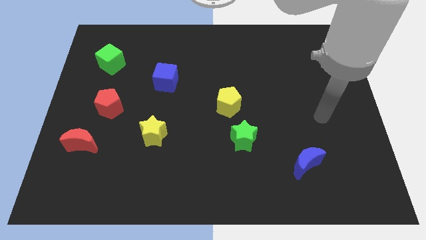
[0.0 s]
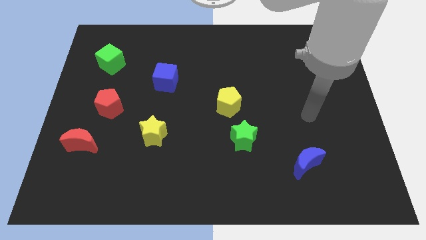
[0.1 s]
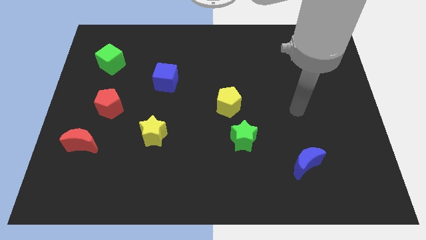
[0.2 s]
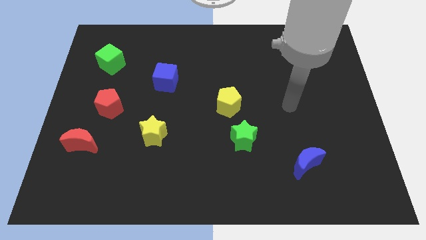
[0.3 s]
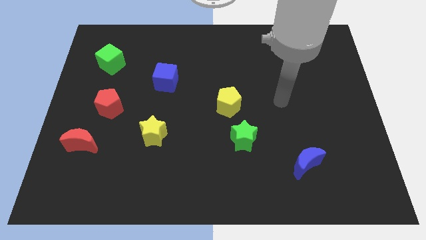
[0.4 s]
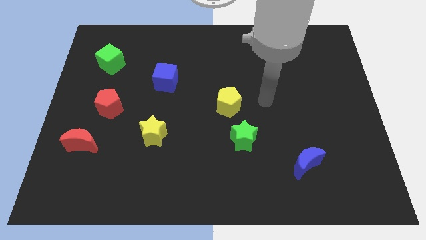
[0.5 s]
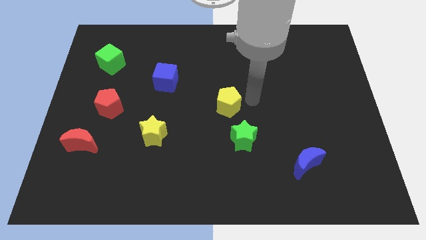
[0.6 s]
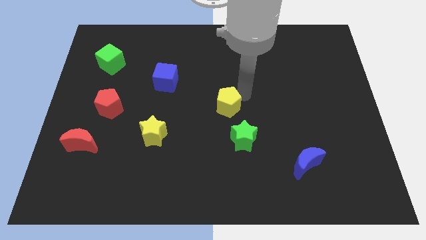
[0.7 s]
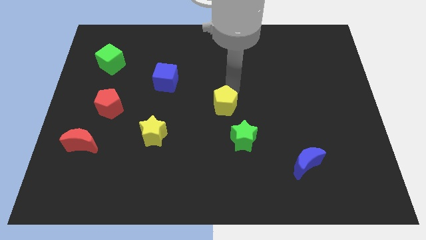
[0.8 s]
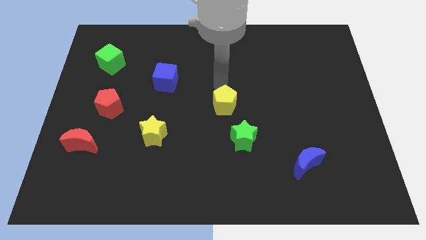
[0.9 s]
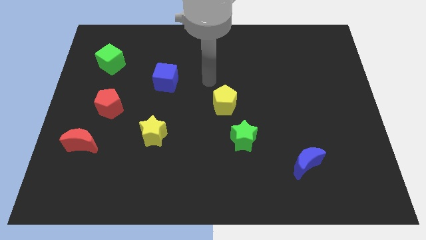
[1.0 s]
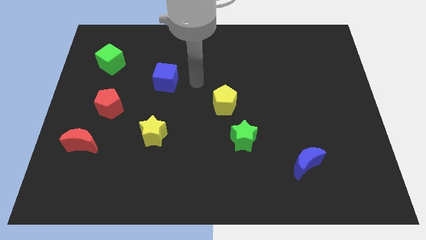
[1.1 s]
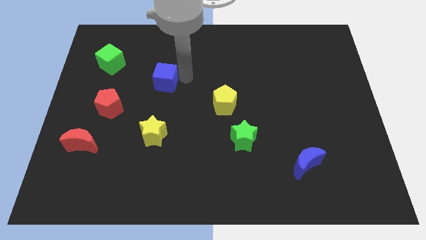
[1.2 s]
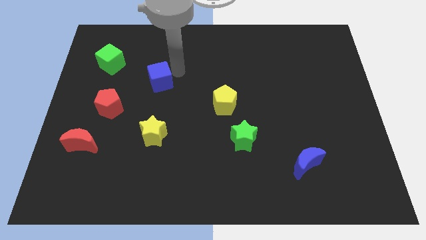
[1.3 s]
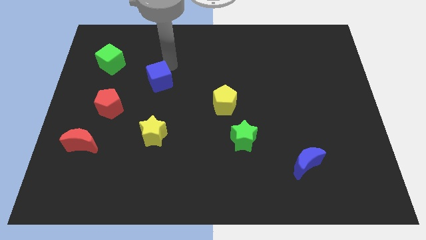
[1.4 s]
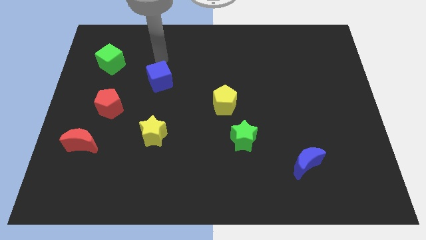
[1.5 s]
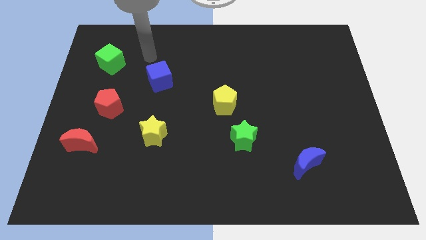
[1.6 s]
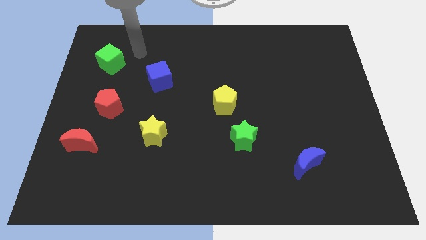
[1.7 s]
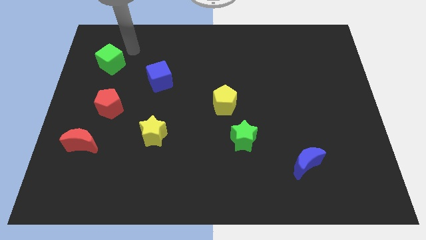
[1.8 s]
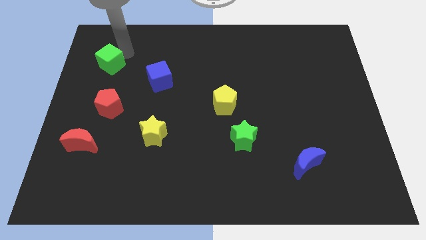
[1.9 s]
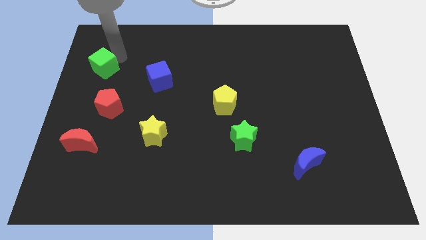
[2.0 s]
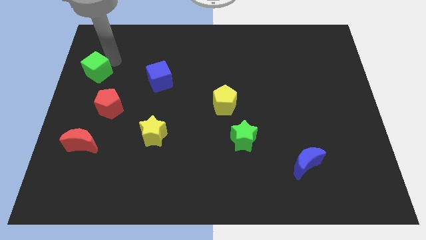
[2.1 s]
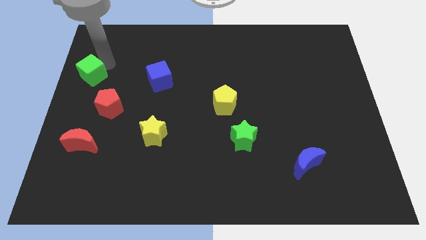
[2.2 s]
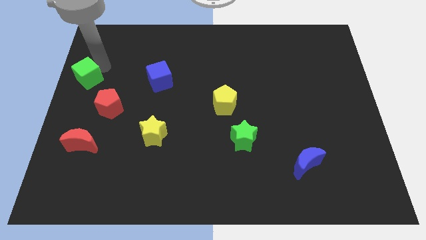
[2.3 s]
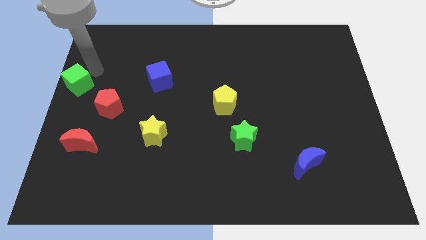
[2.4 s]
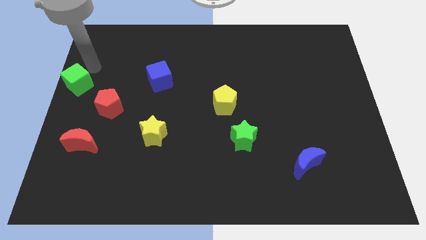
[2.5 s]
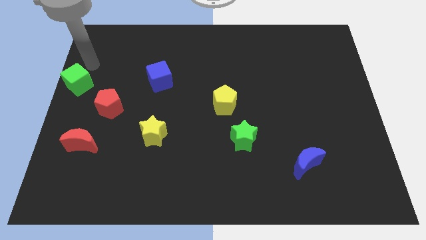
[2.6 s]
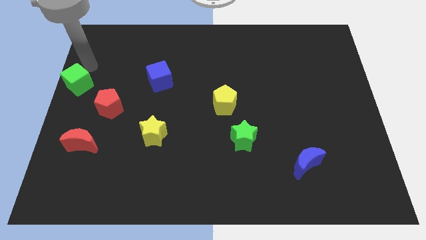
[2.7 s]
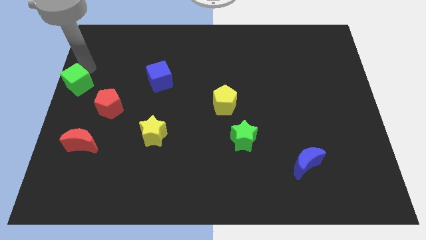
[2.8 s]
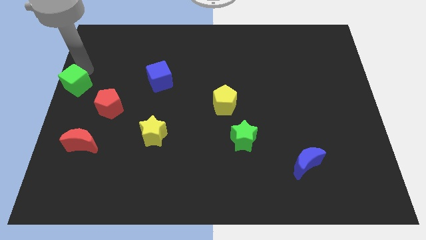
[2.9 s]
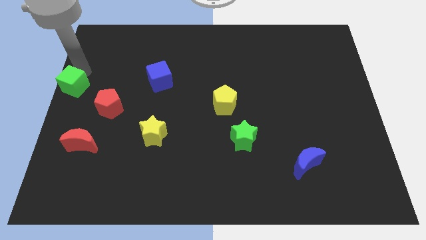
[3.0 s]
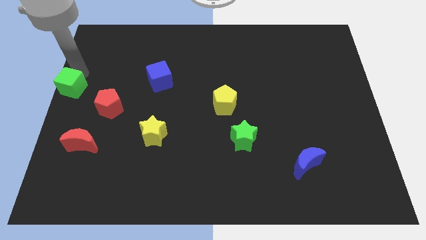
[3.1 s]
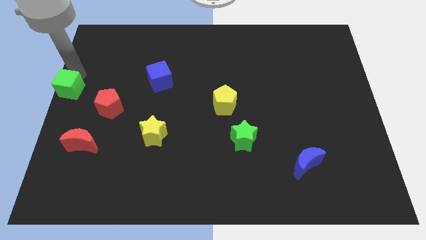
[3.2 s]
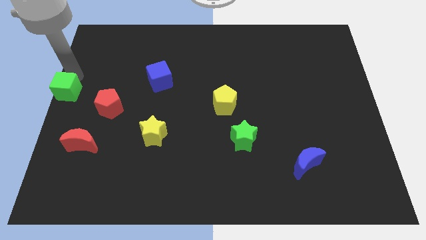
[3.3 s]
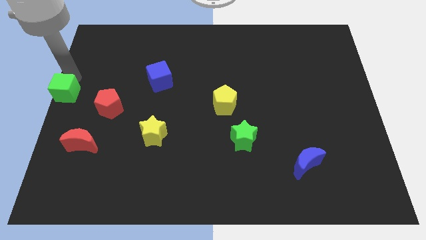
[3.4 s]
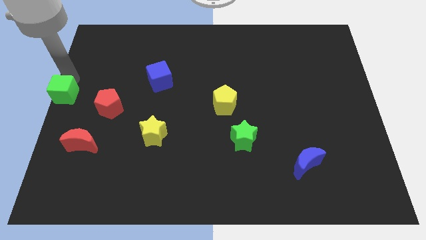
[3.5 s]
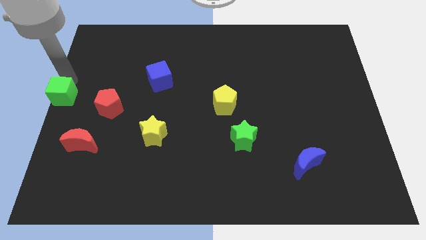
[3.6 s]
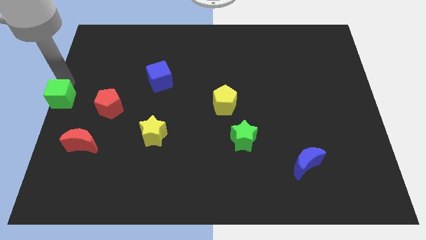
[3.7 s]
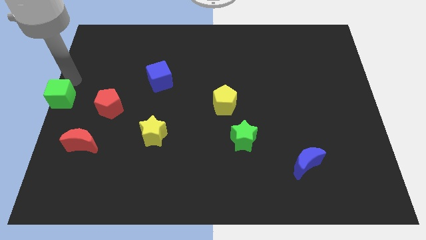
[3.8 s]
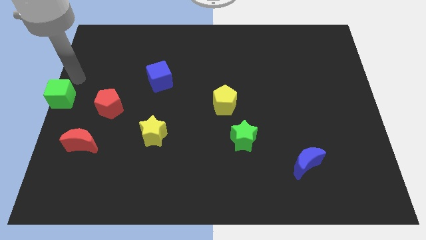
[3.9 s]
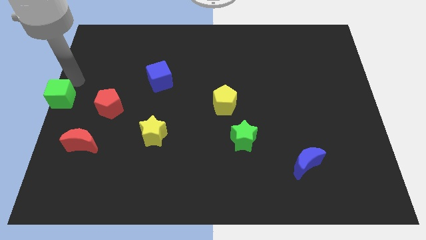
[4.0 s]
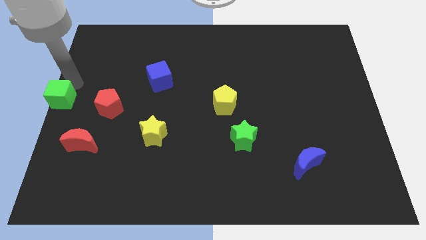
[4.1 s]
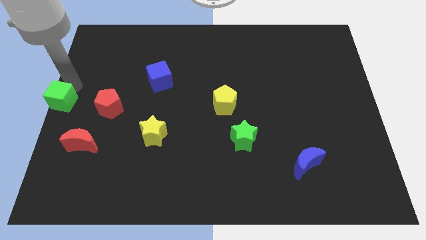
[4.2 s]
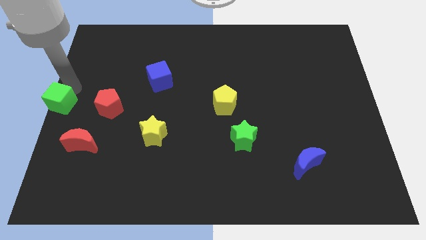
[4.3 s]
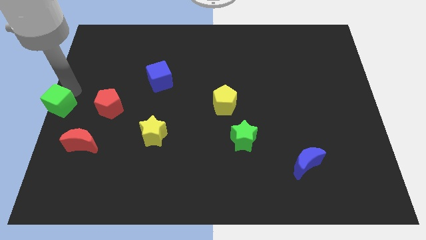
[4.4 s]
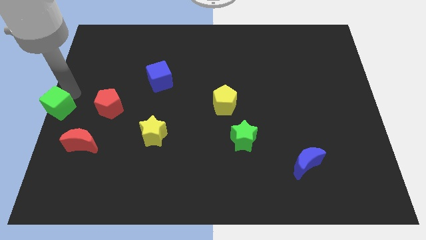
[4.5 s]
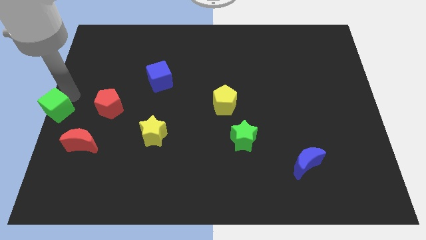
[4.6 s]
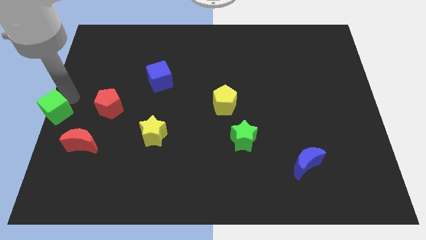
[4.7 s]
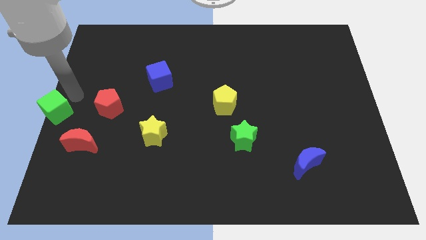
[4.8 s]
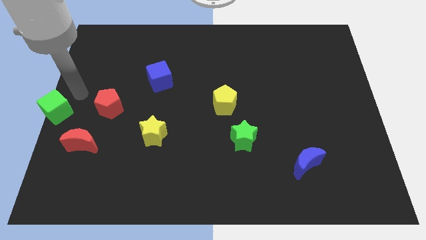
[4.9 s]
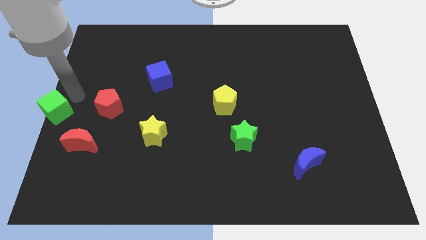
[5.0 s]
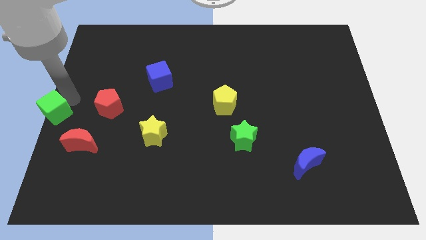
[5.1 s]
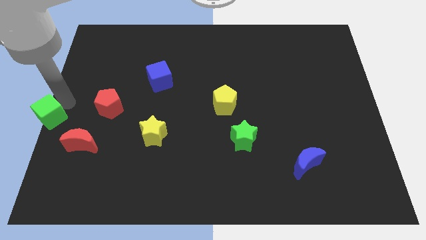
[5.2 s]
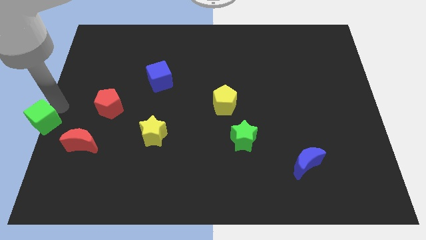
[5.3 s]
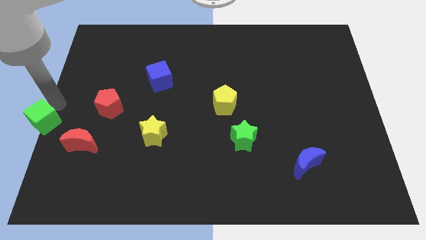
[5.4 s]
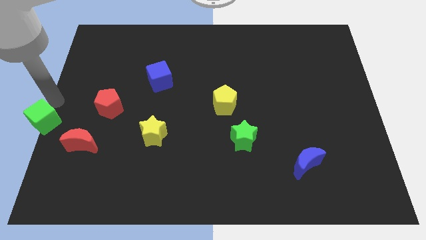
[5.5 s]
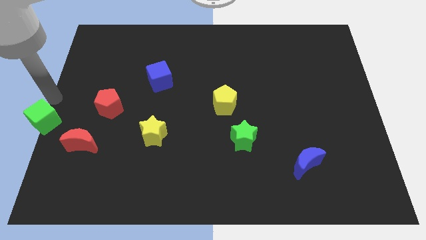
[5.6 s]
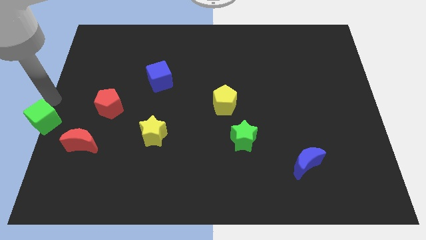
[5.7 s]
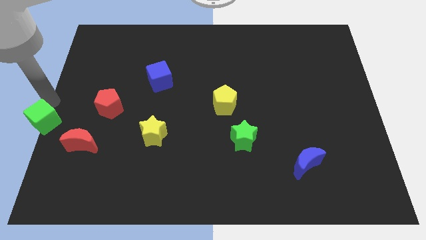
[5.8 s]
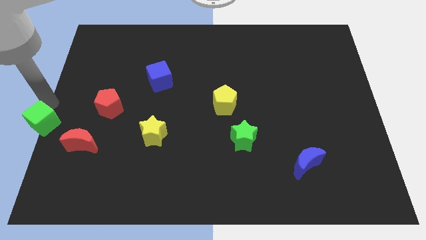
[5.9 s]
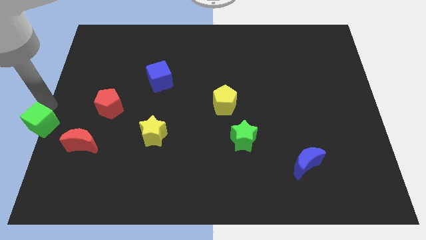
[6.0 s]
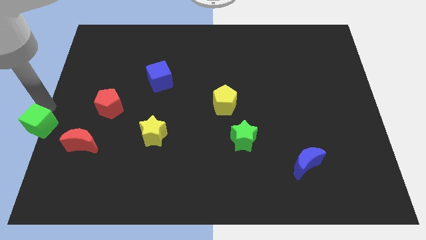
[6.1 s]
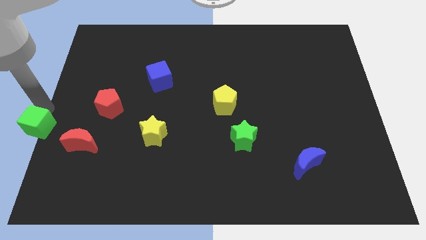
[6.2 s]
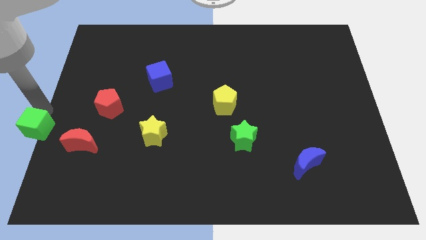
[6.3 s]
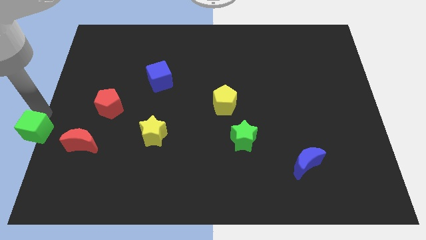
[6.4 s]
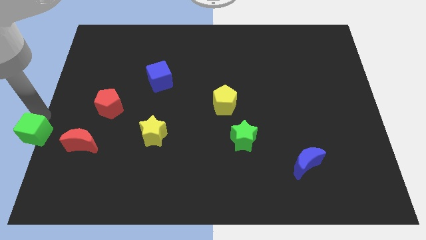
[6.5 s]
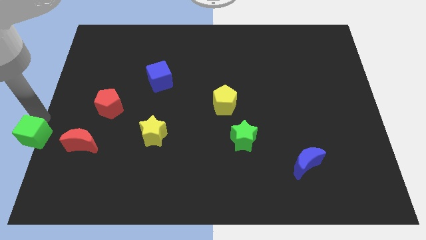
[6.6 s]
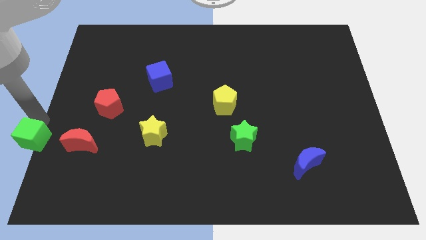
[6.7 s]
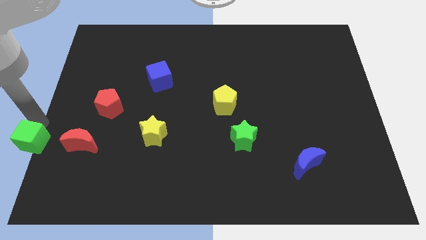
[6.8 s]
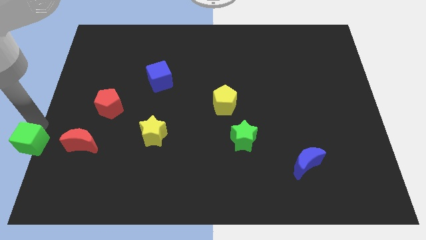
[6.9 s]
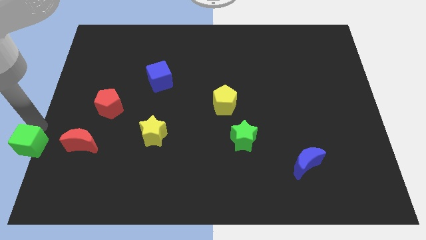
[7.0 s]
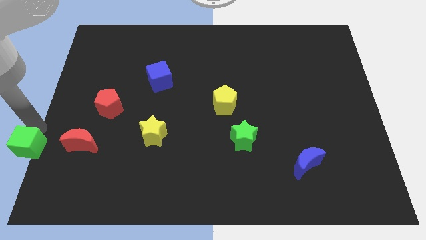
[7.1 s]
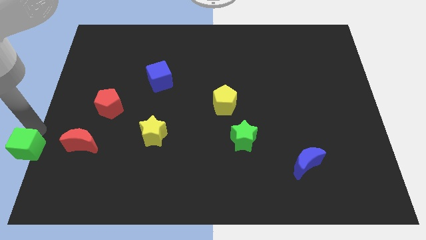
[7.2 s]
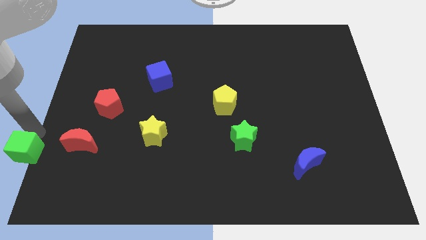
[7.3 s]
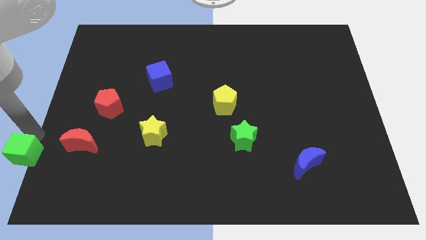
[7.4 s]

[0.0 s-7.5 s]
move the green cube to the bottom left corner

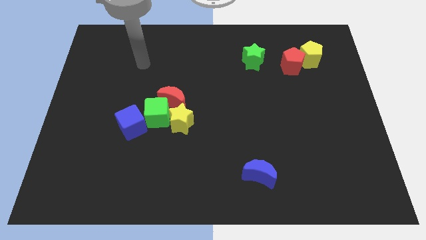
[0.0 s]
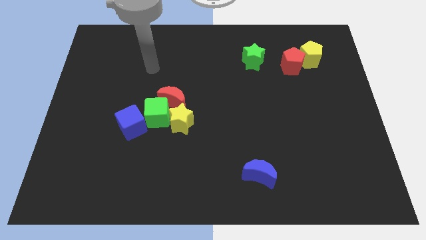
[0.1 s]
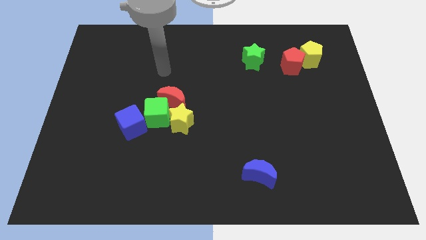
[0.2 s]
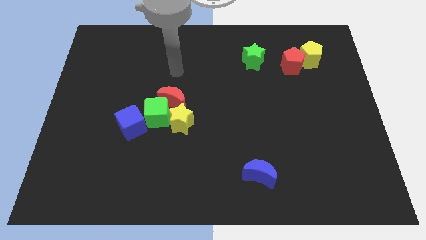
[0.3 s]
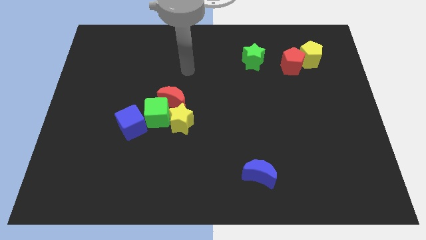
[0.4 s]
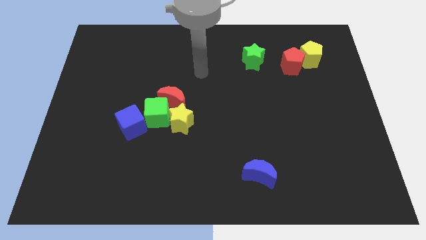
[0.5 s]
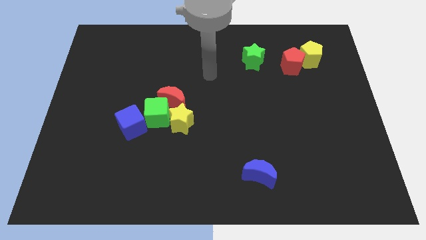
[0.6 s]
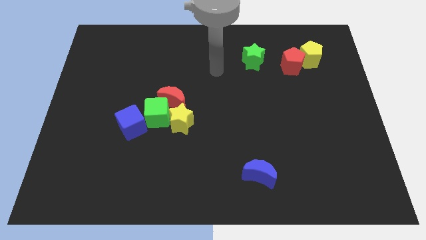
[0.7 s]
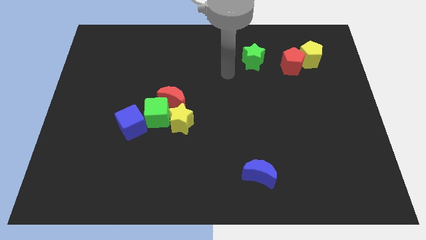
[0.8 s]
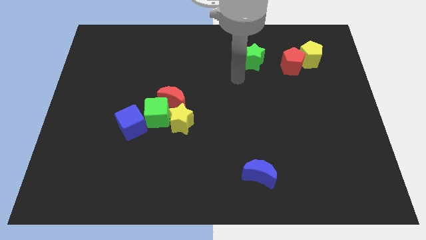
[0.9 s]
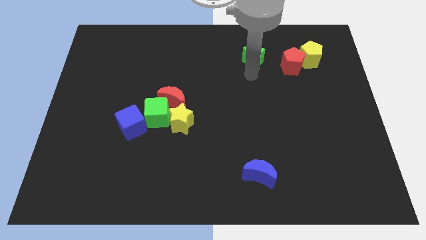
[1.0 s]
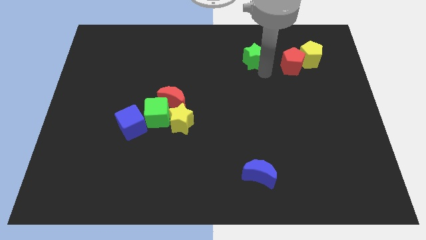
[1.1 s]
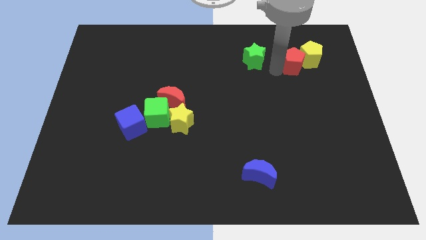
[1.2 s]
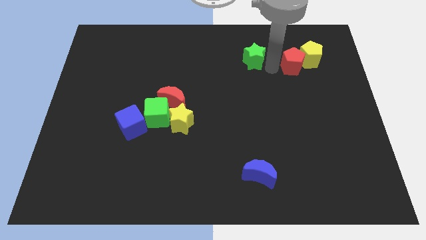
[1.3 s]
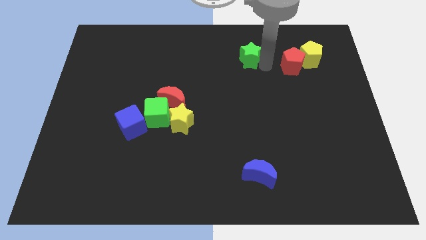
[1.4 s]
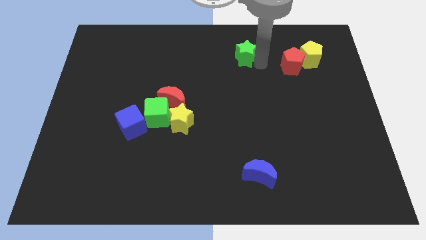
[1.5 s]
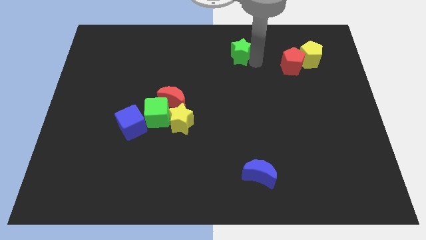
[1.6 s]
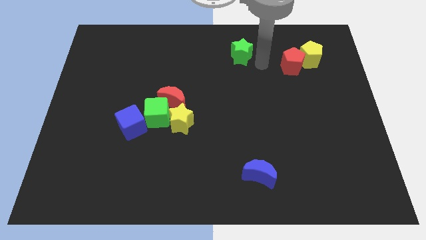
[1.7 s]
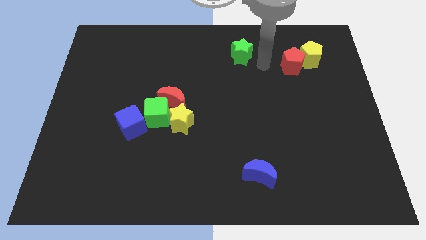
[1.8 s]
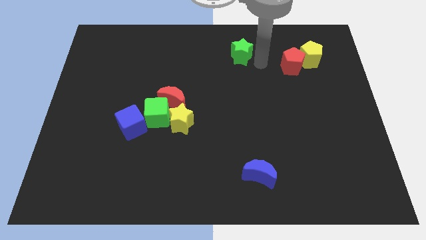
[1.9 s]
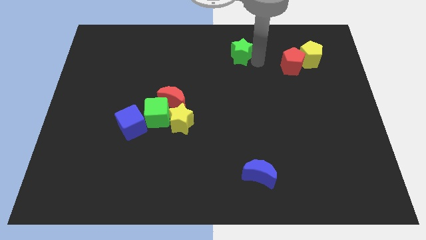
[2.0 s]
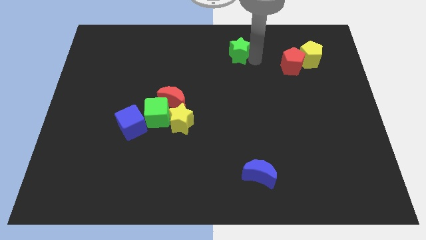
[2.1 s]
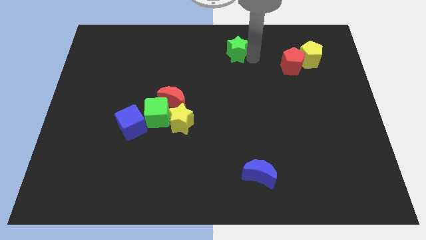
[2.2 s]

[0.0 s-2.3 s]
push the green star to the top side
